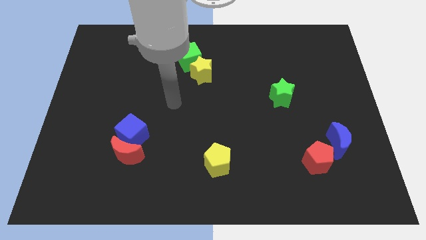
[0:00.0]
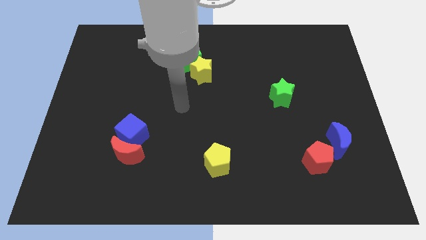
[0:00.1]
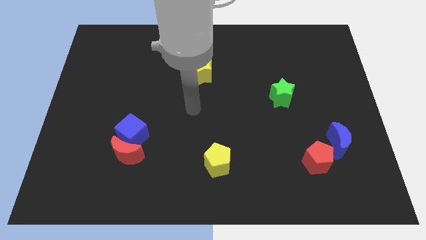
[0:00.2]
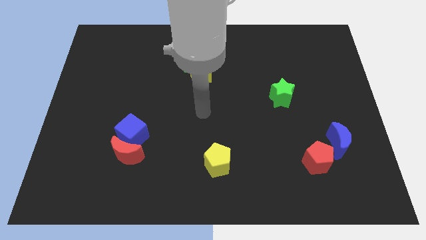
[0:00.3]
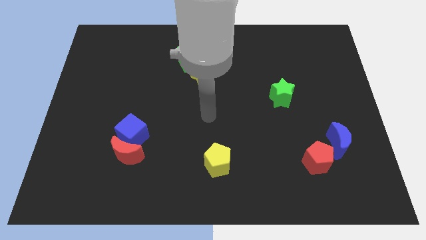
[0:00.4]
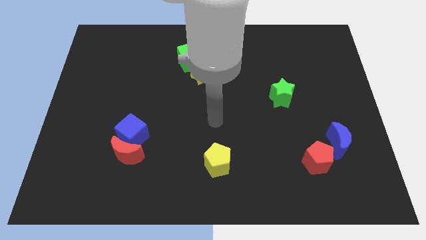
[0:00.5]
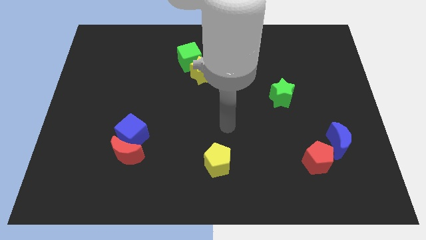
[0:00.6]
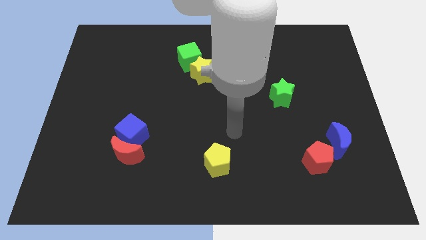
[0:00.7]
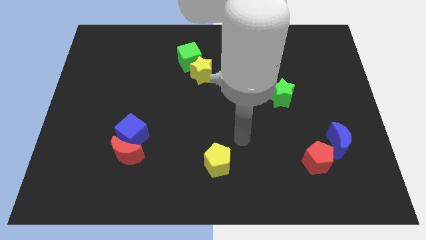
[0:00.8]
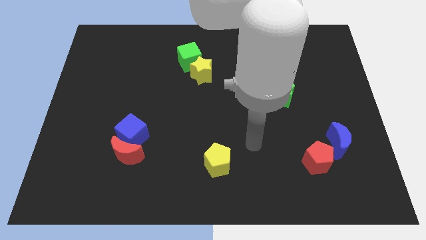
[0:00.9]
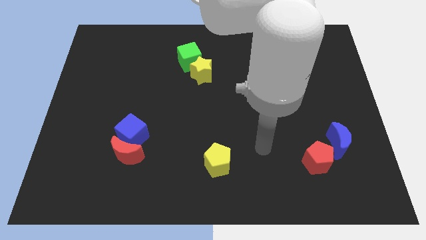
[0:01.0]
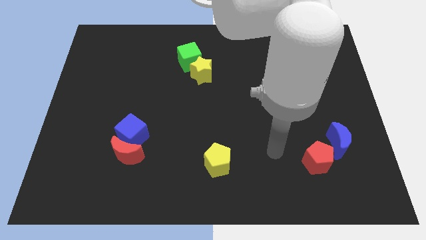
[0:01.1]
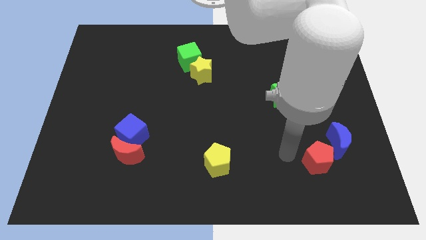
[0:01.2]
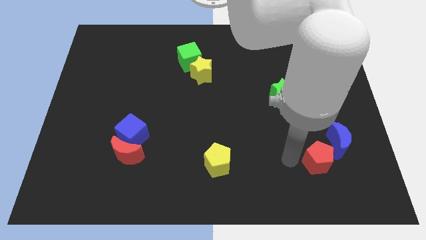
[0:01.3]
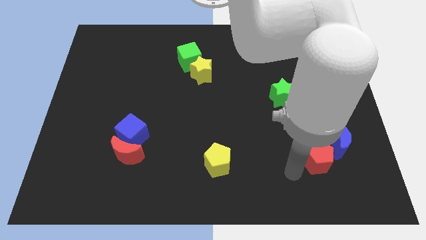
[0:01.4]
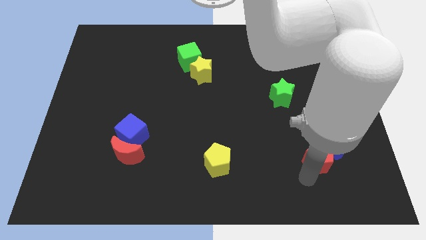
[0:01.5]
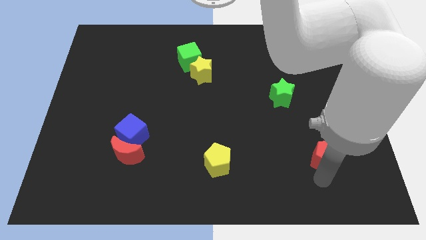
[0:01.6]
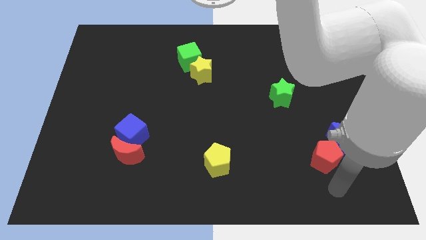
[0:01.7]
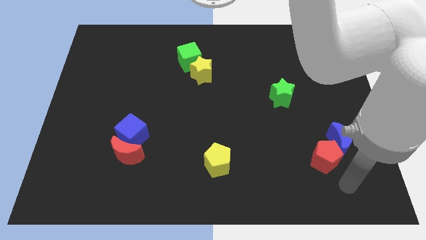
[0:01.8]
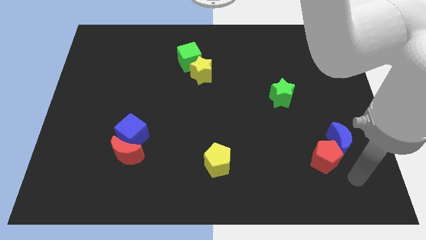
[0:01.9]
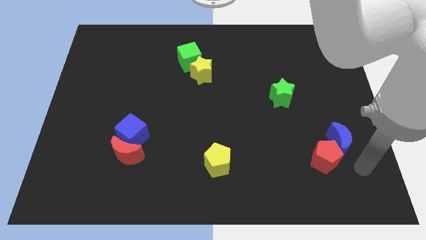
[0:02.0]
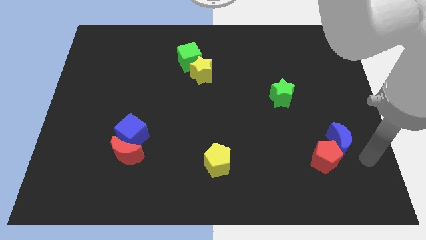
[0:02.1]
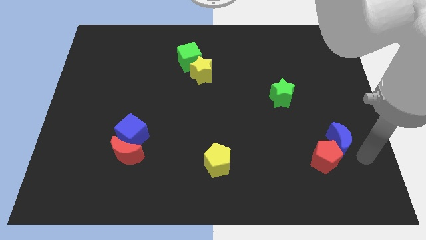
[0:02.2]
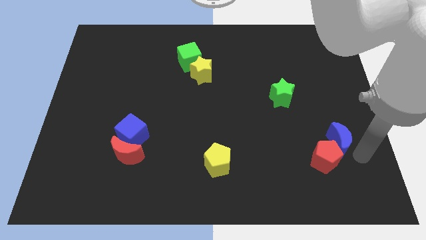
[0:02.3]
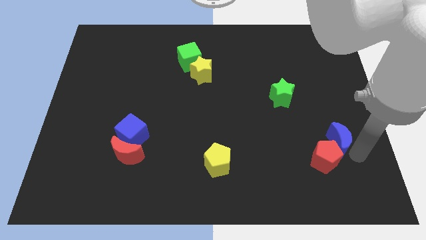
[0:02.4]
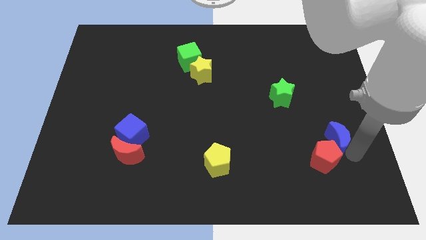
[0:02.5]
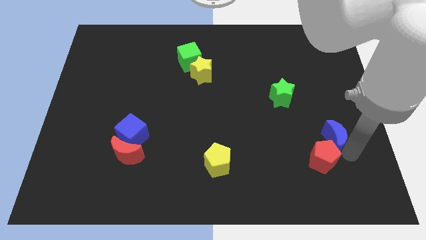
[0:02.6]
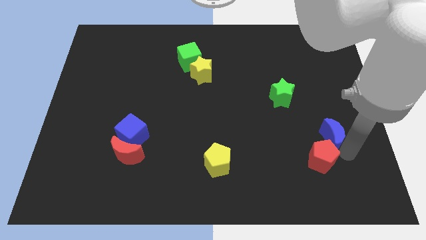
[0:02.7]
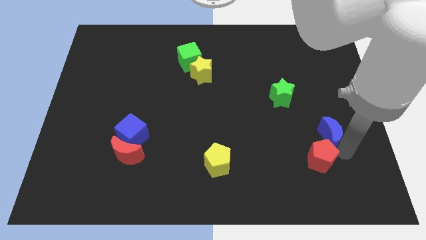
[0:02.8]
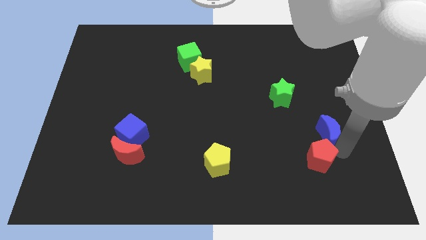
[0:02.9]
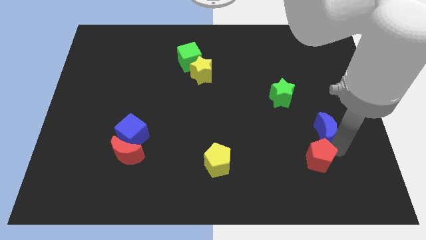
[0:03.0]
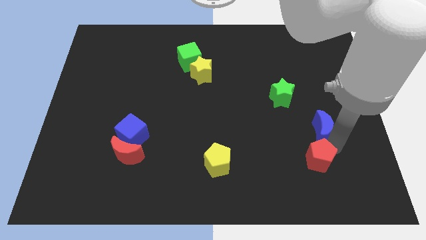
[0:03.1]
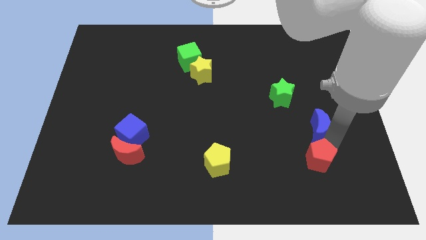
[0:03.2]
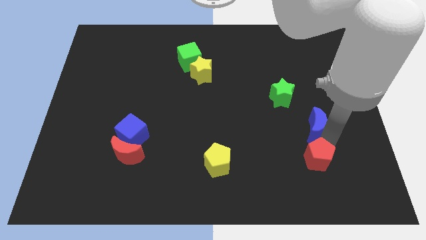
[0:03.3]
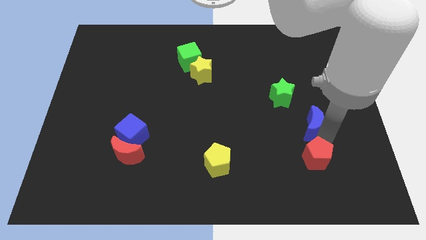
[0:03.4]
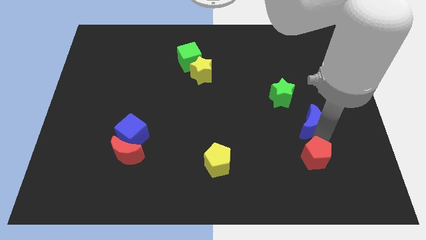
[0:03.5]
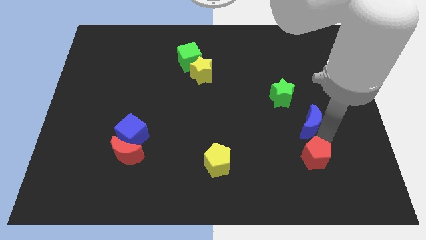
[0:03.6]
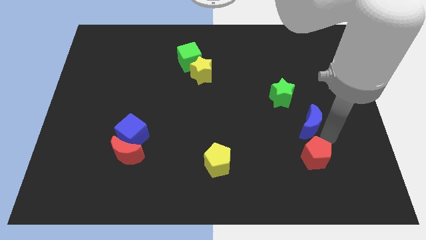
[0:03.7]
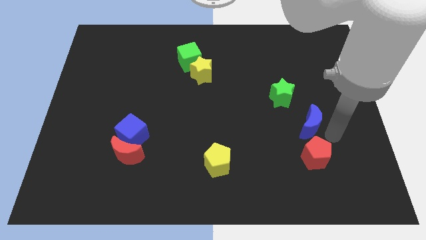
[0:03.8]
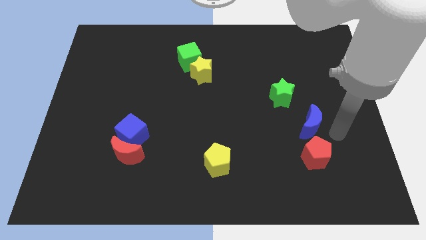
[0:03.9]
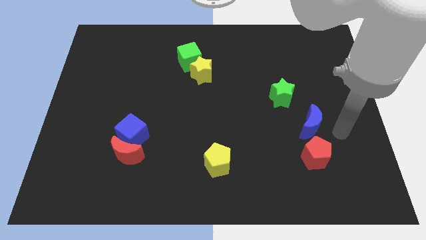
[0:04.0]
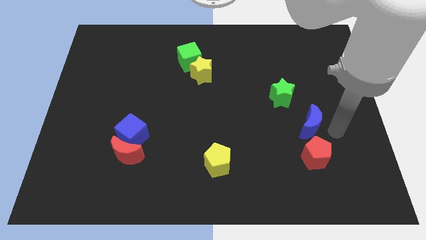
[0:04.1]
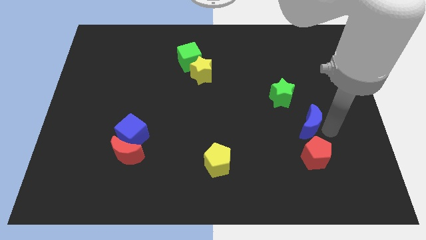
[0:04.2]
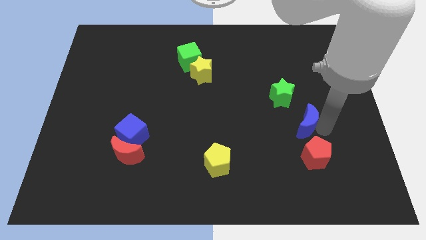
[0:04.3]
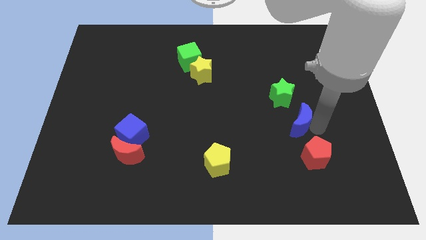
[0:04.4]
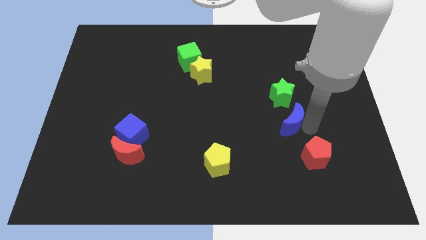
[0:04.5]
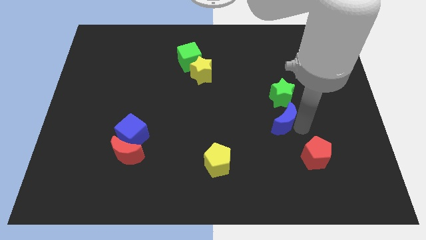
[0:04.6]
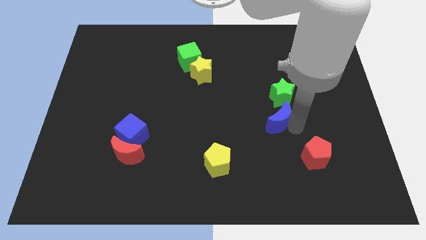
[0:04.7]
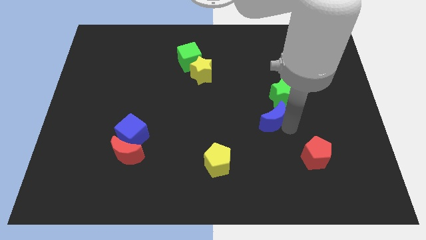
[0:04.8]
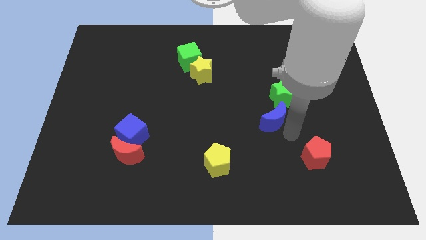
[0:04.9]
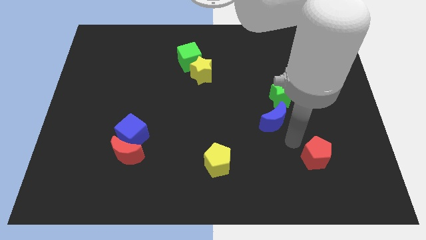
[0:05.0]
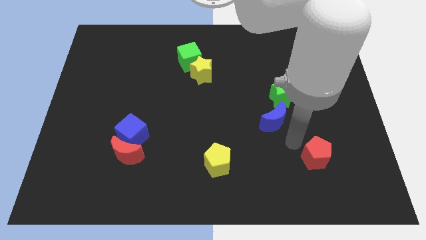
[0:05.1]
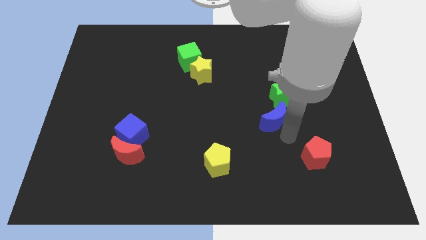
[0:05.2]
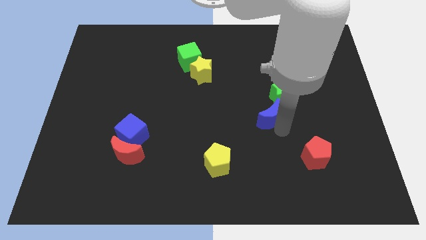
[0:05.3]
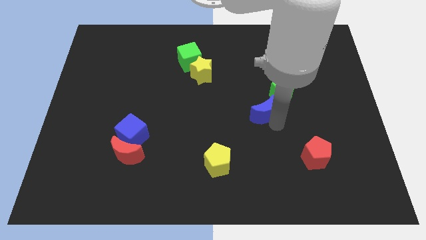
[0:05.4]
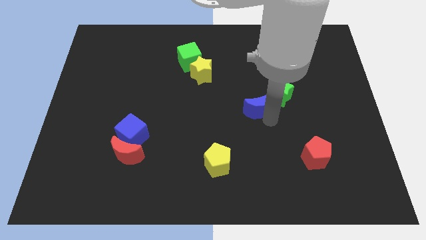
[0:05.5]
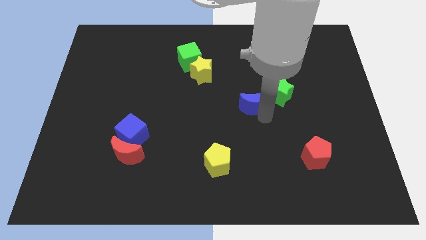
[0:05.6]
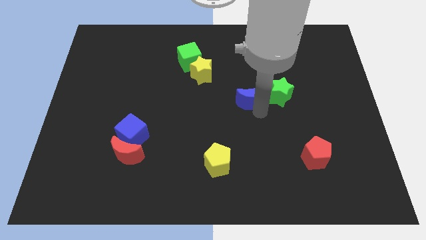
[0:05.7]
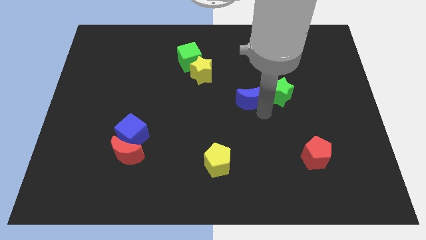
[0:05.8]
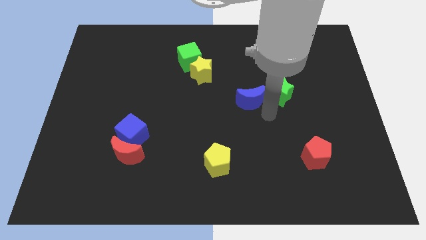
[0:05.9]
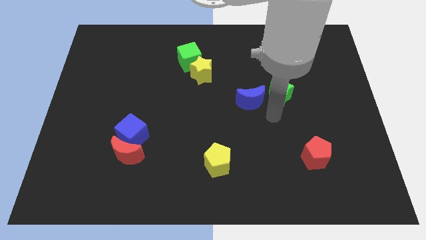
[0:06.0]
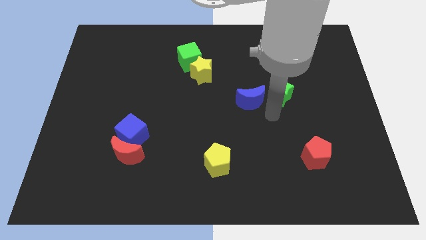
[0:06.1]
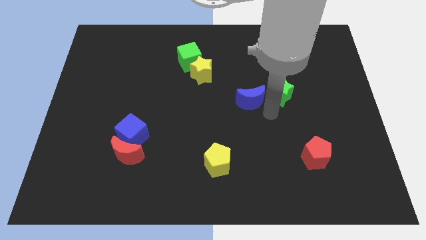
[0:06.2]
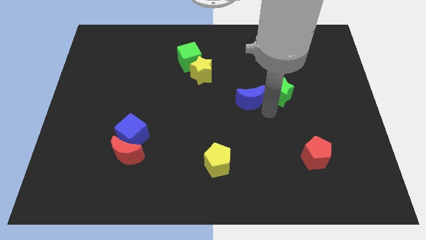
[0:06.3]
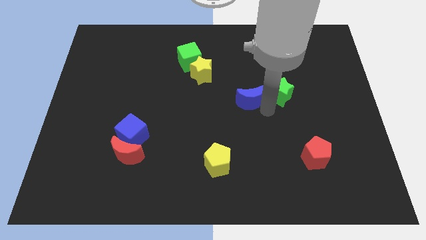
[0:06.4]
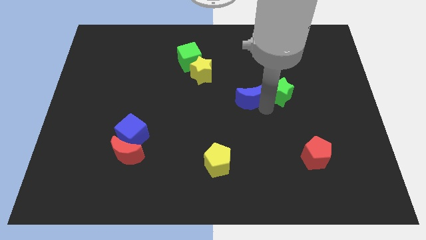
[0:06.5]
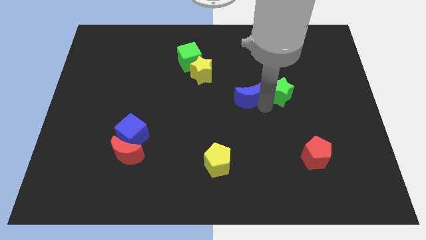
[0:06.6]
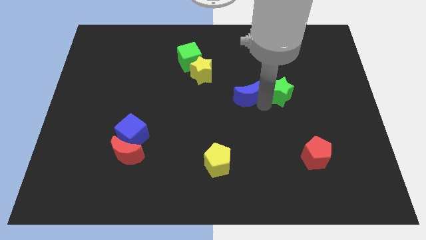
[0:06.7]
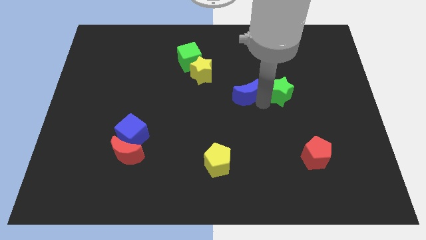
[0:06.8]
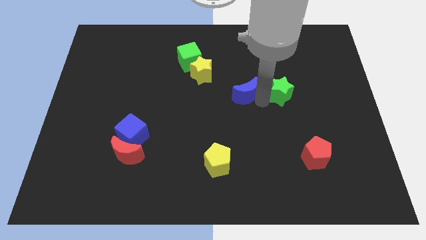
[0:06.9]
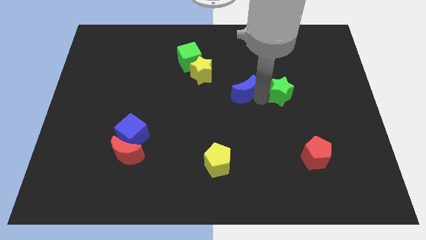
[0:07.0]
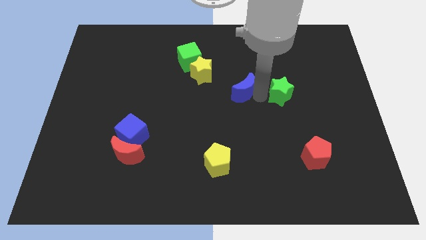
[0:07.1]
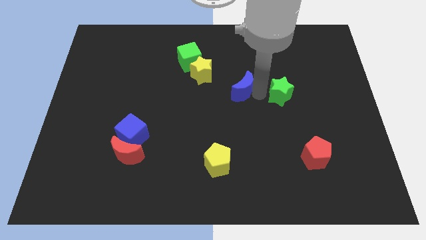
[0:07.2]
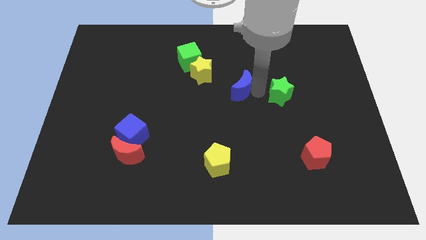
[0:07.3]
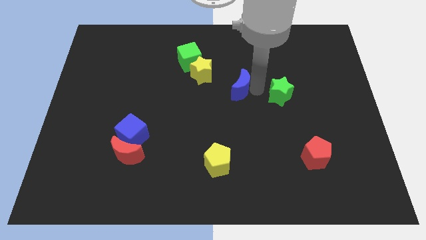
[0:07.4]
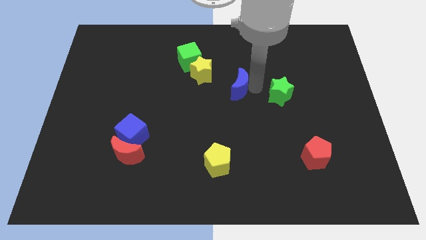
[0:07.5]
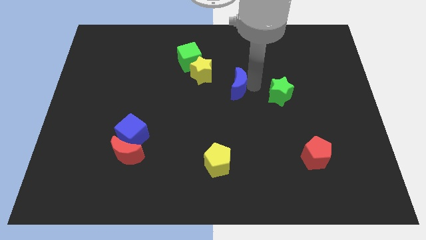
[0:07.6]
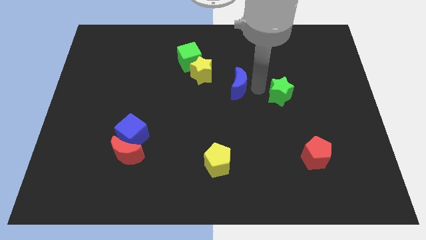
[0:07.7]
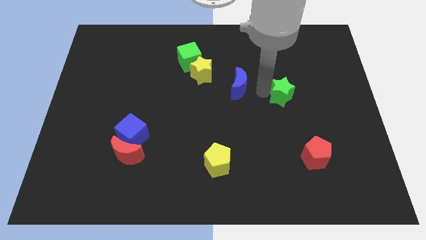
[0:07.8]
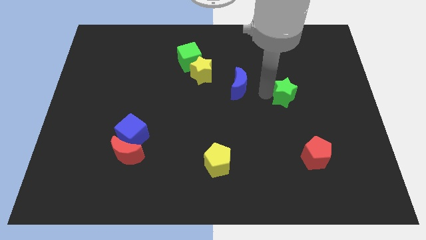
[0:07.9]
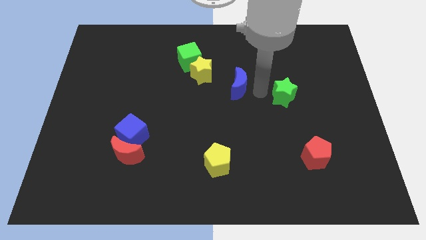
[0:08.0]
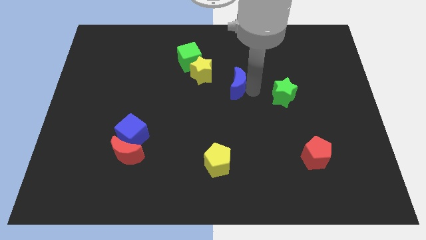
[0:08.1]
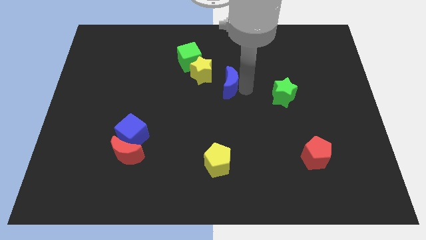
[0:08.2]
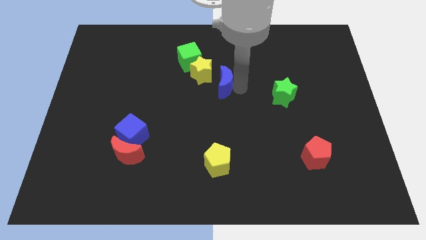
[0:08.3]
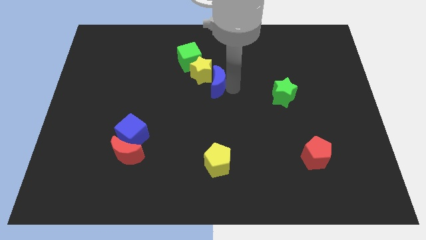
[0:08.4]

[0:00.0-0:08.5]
put the blue moon to the yellow star
